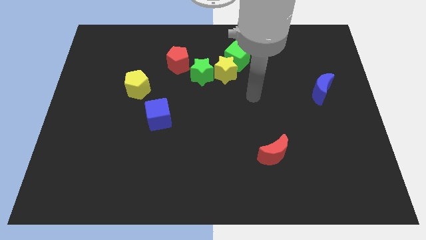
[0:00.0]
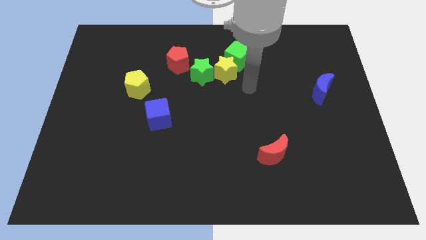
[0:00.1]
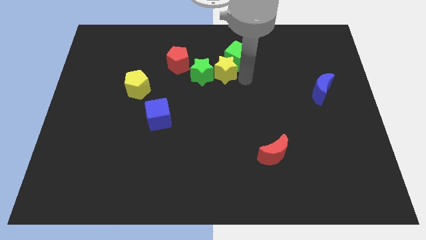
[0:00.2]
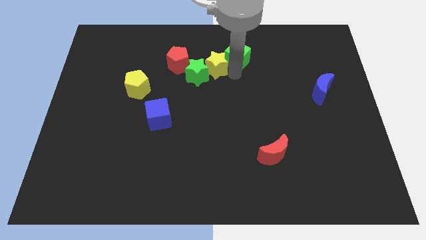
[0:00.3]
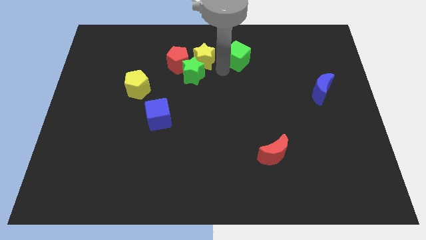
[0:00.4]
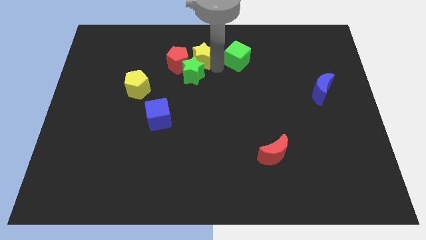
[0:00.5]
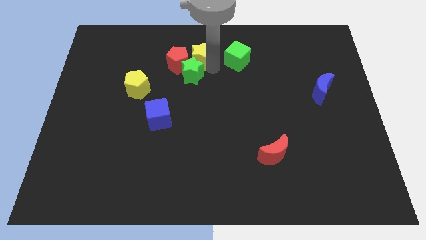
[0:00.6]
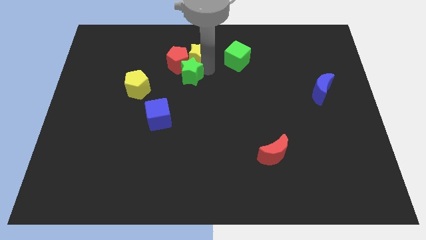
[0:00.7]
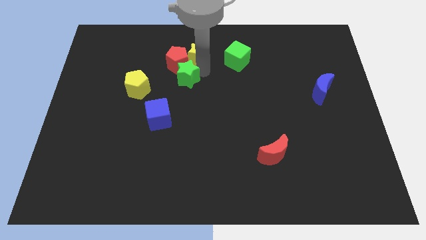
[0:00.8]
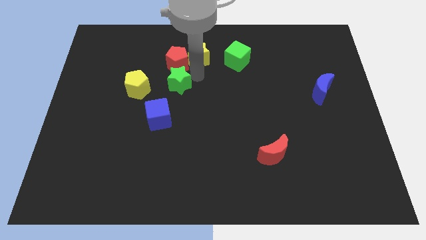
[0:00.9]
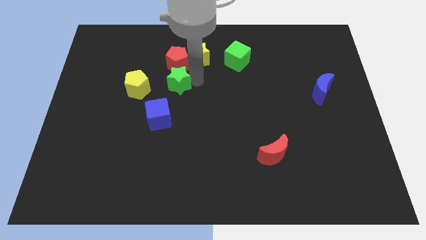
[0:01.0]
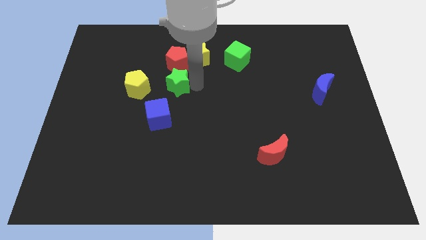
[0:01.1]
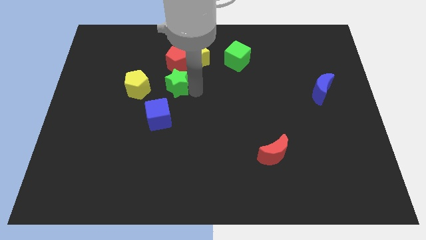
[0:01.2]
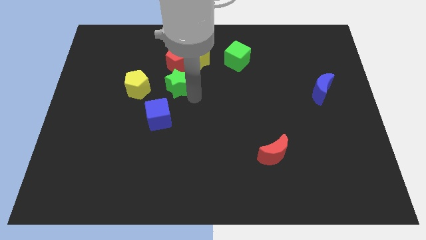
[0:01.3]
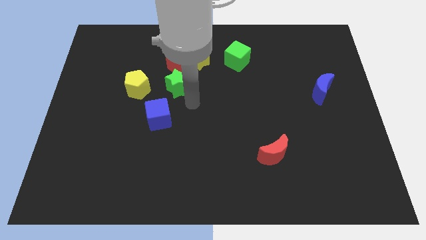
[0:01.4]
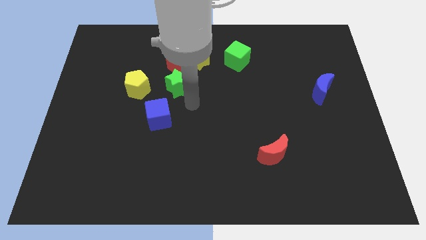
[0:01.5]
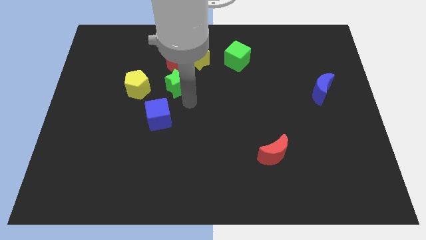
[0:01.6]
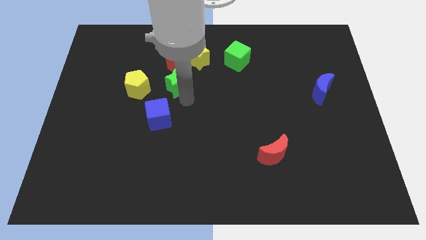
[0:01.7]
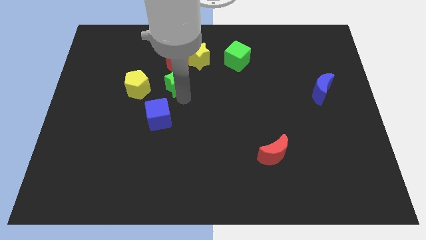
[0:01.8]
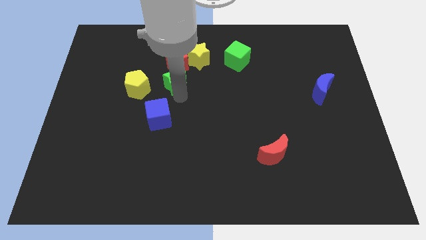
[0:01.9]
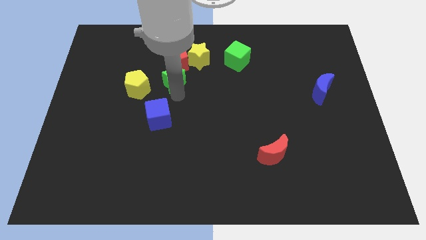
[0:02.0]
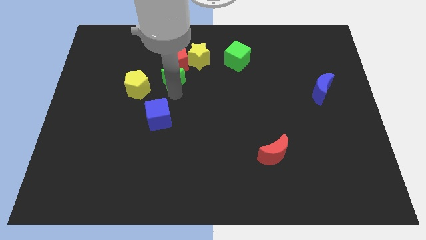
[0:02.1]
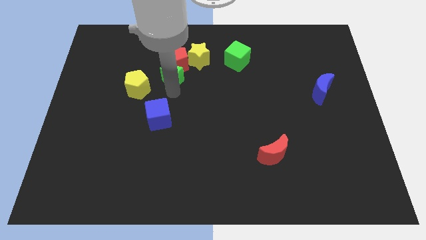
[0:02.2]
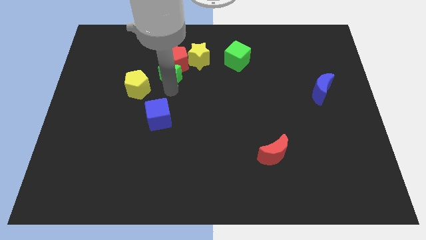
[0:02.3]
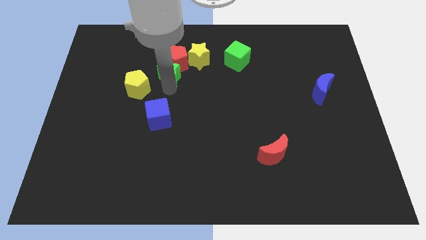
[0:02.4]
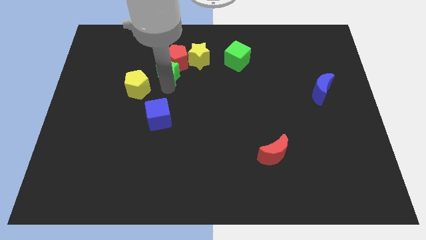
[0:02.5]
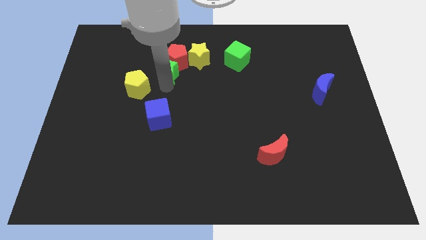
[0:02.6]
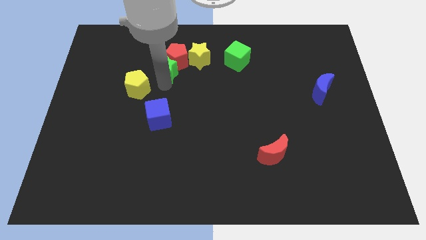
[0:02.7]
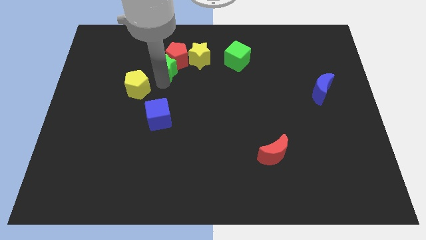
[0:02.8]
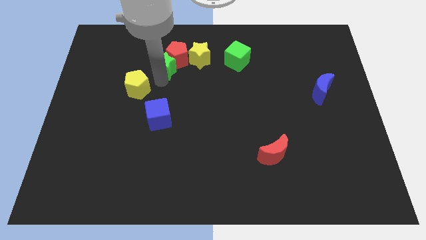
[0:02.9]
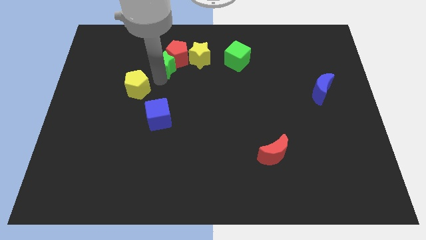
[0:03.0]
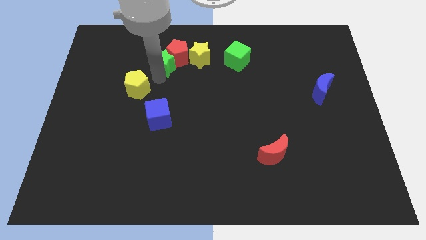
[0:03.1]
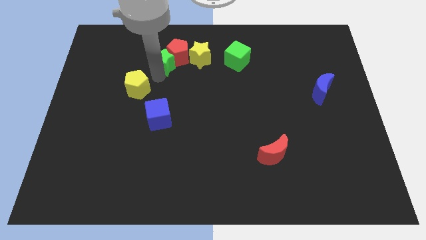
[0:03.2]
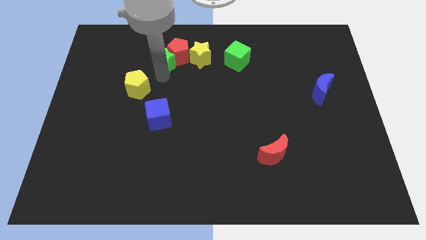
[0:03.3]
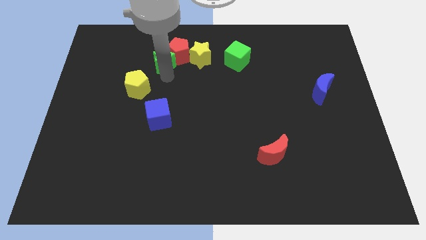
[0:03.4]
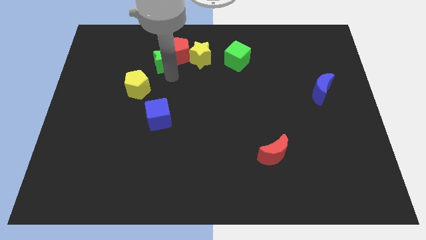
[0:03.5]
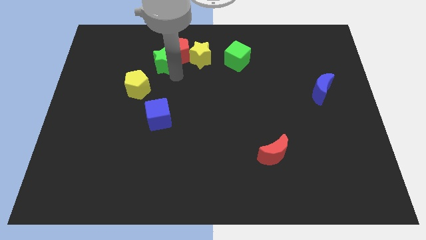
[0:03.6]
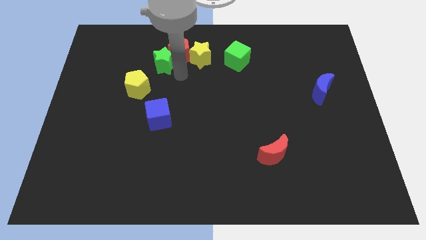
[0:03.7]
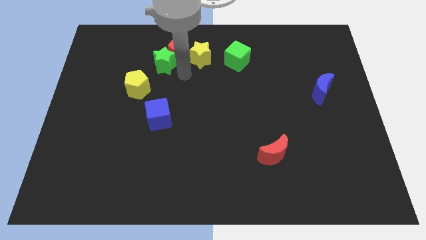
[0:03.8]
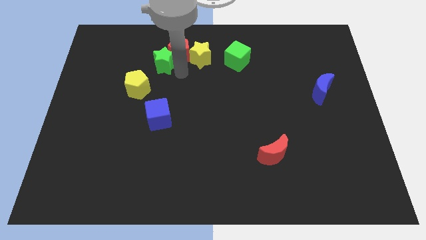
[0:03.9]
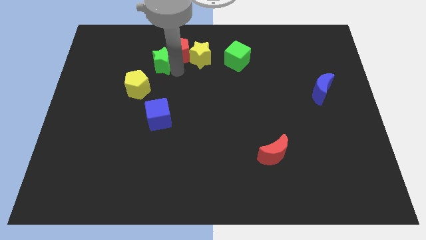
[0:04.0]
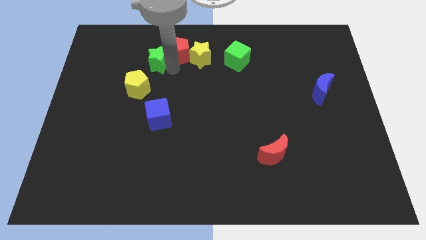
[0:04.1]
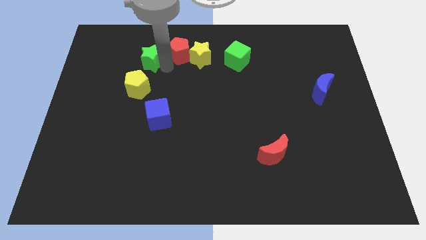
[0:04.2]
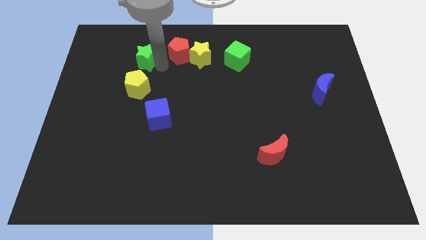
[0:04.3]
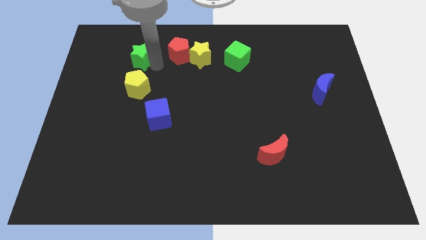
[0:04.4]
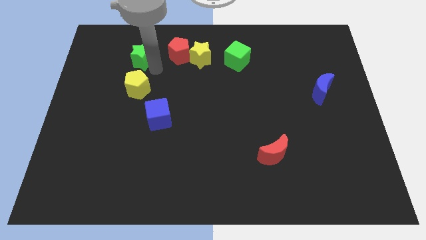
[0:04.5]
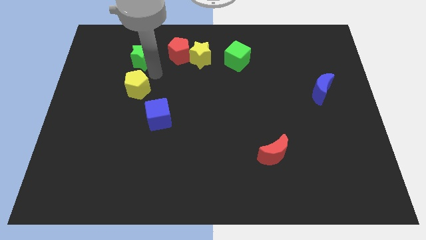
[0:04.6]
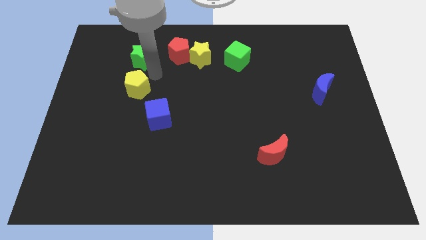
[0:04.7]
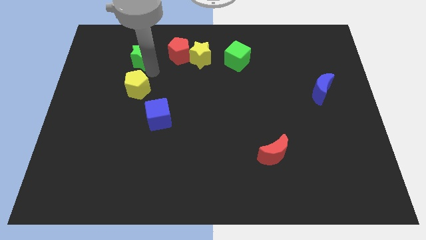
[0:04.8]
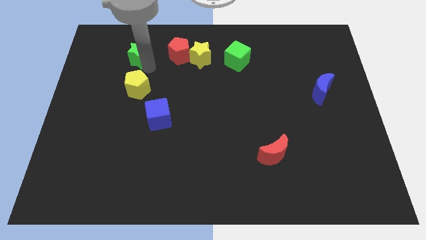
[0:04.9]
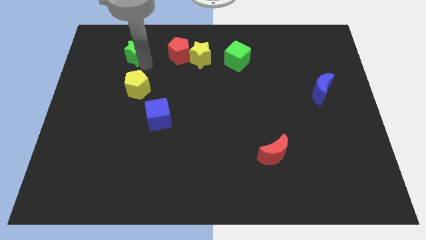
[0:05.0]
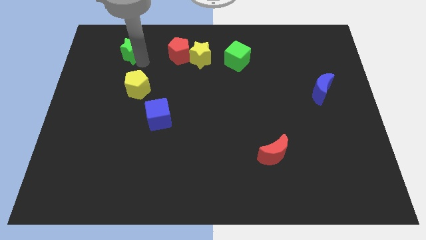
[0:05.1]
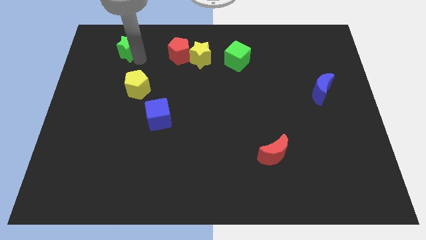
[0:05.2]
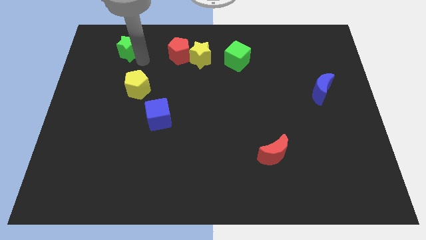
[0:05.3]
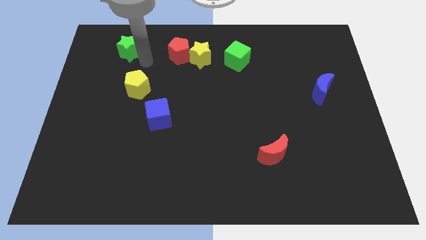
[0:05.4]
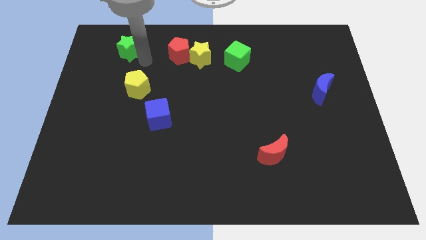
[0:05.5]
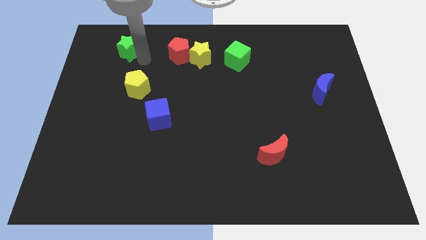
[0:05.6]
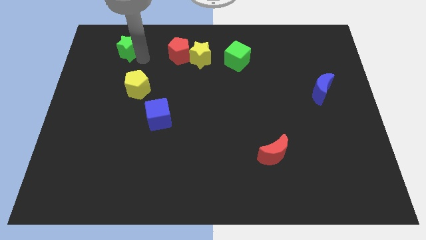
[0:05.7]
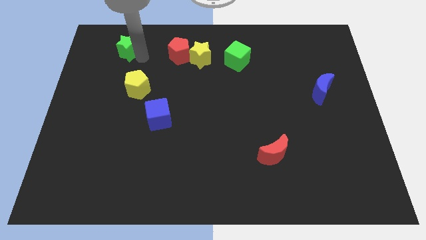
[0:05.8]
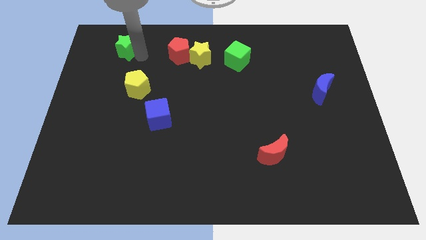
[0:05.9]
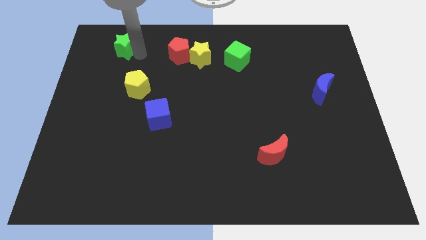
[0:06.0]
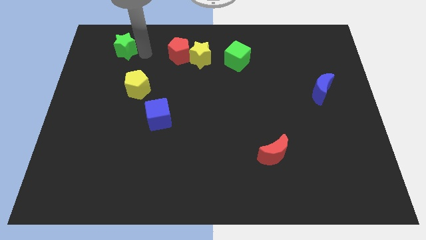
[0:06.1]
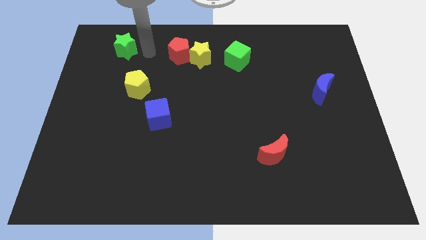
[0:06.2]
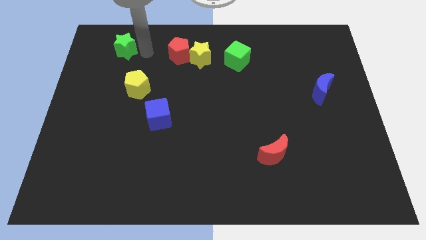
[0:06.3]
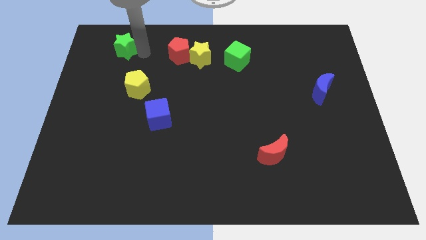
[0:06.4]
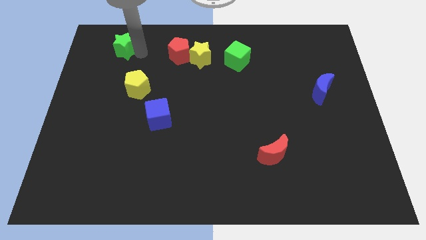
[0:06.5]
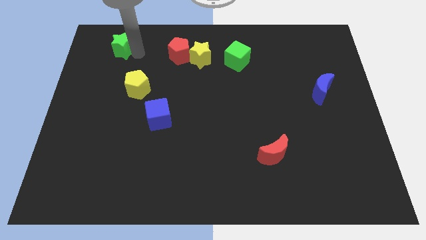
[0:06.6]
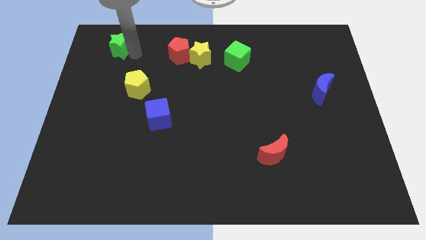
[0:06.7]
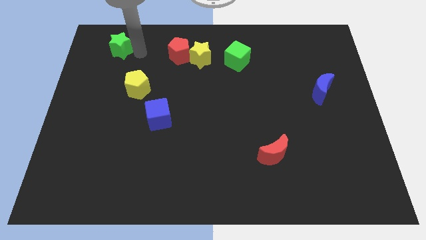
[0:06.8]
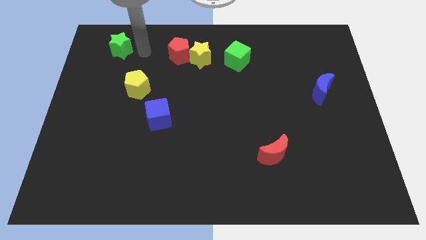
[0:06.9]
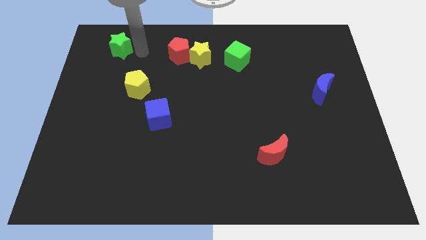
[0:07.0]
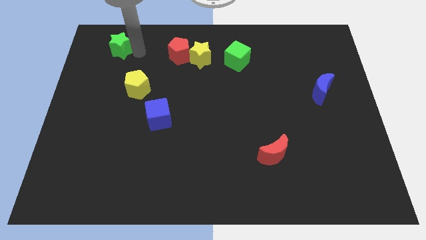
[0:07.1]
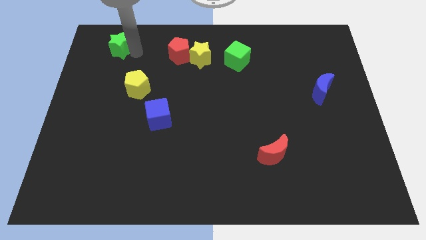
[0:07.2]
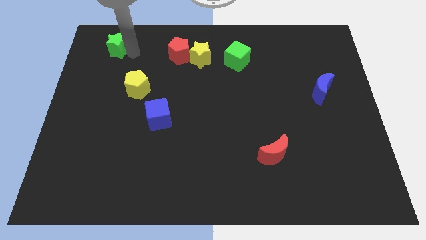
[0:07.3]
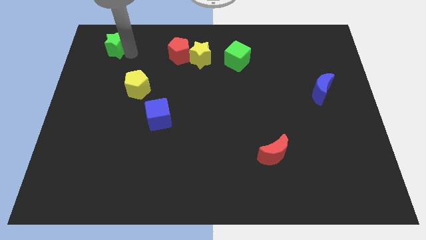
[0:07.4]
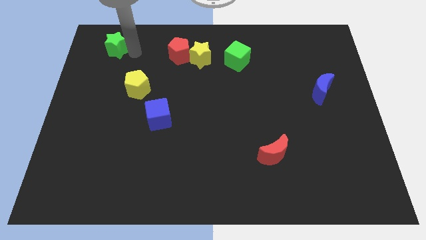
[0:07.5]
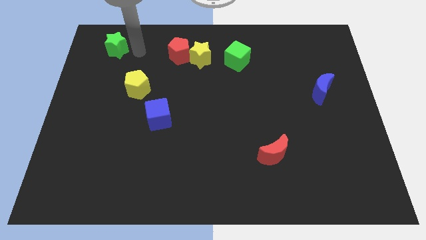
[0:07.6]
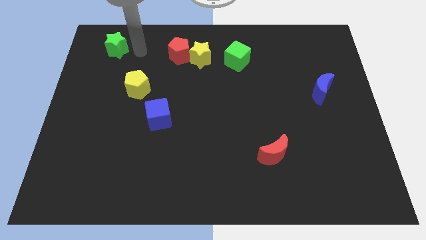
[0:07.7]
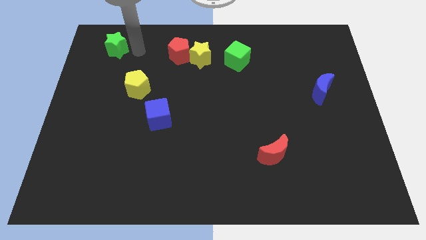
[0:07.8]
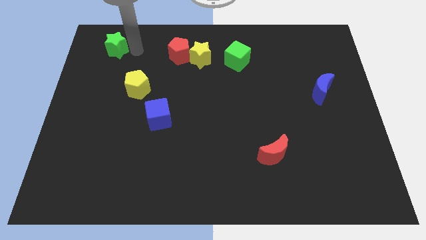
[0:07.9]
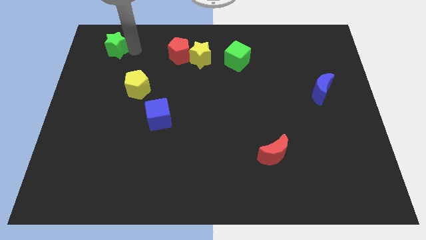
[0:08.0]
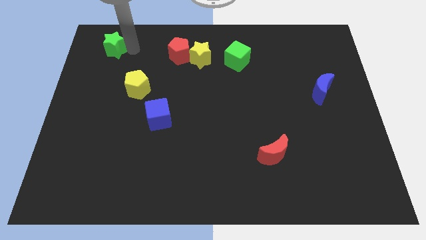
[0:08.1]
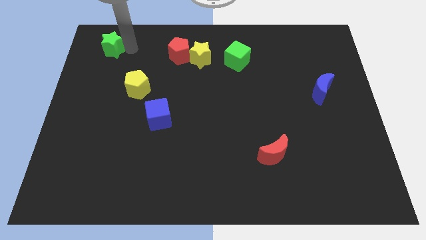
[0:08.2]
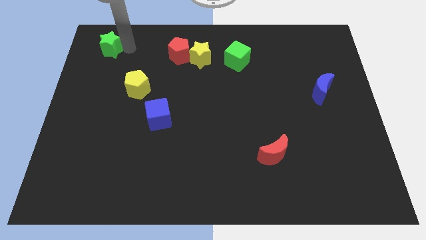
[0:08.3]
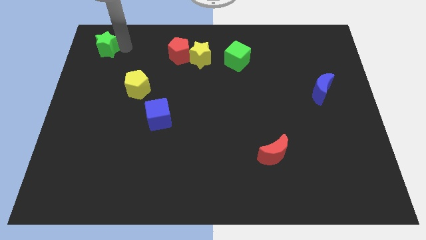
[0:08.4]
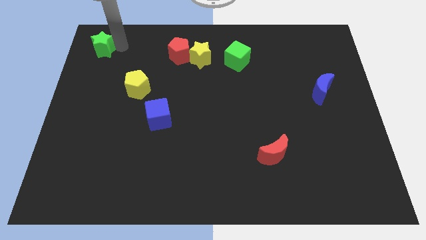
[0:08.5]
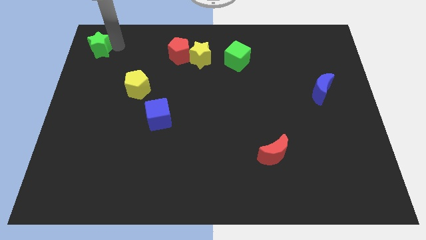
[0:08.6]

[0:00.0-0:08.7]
put the green star to the top left of the board
